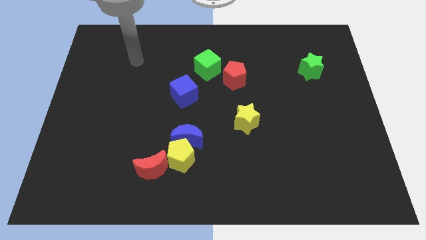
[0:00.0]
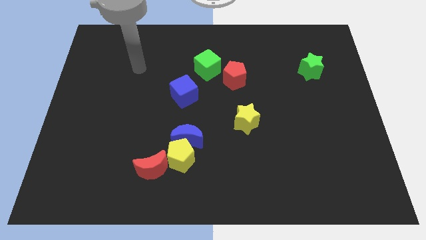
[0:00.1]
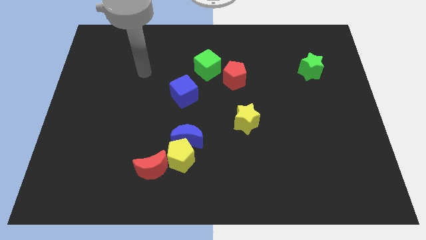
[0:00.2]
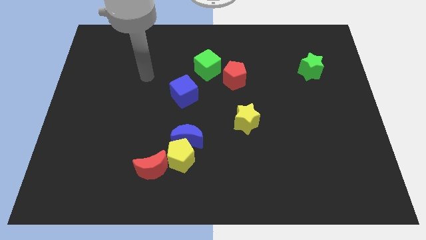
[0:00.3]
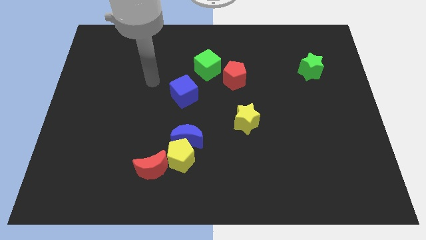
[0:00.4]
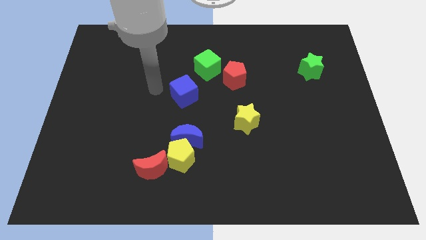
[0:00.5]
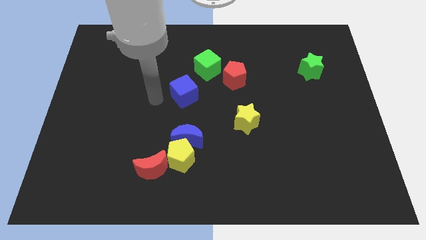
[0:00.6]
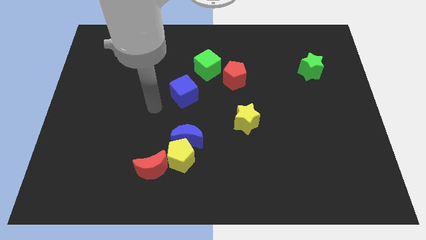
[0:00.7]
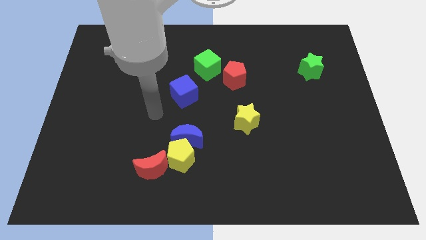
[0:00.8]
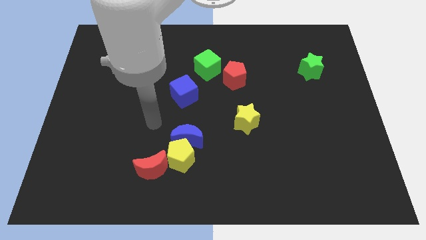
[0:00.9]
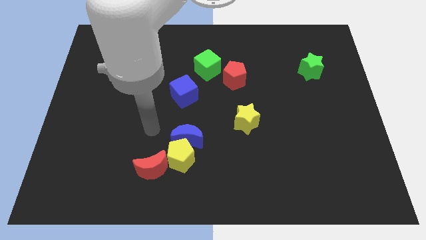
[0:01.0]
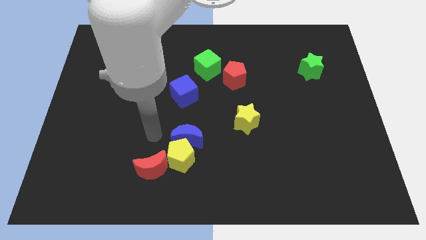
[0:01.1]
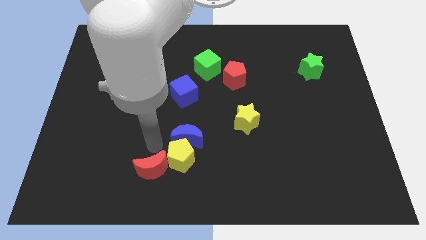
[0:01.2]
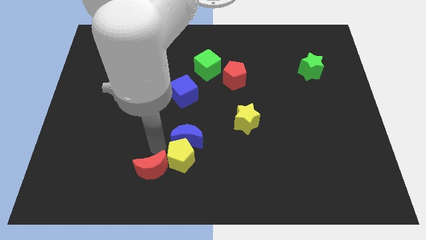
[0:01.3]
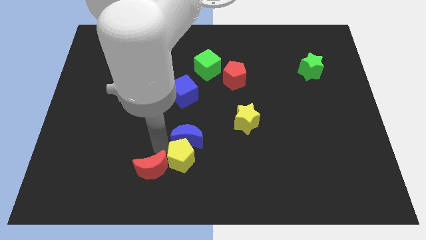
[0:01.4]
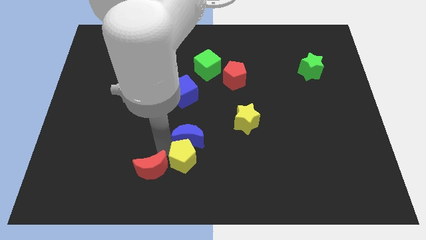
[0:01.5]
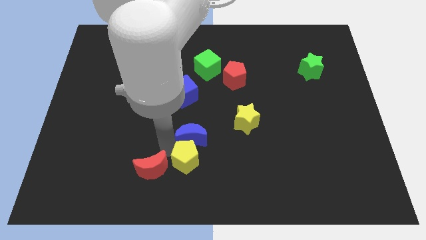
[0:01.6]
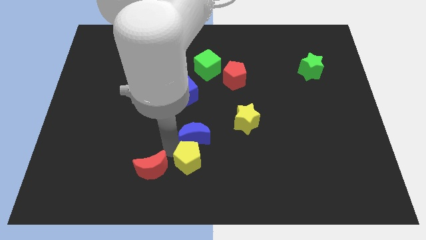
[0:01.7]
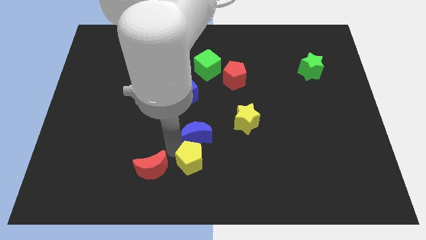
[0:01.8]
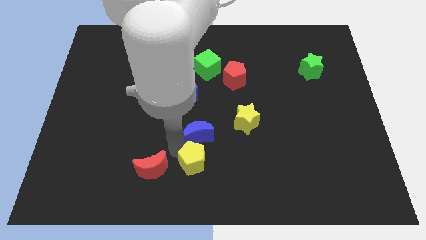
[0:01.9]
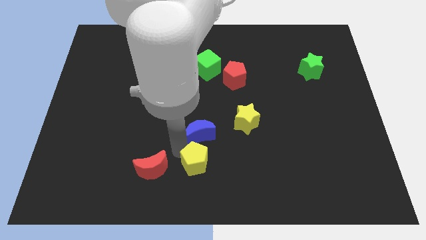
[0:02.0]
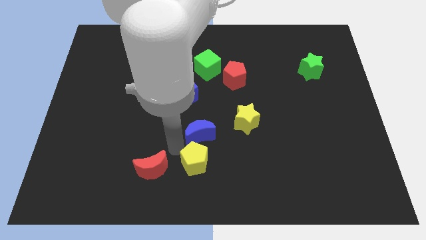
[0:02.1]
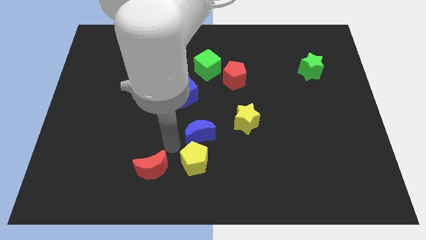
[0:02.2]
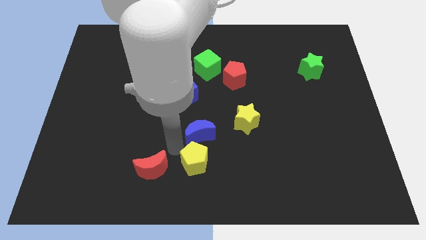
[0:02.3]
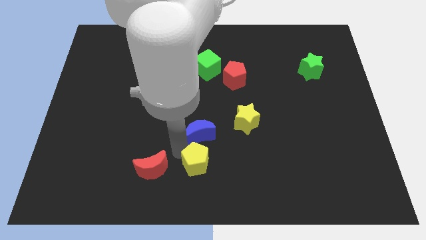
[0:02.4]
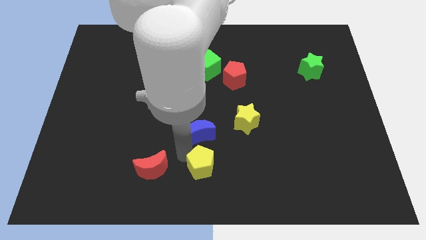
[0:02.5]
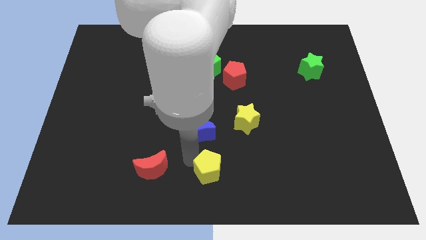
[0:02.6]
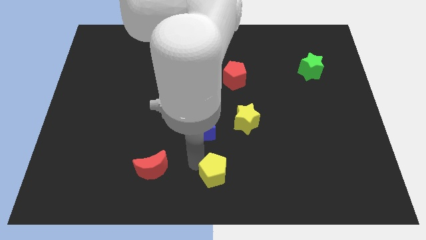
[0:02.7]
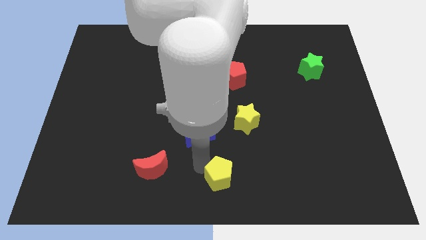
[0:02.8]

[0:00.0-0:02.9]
move the yellow pentagon away from the blue moon and red moon

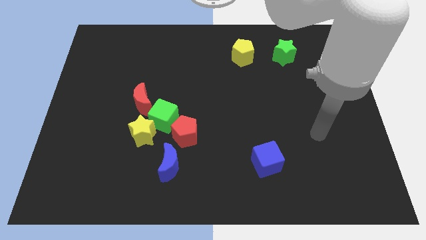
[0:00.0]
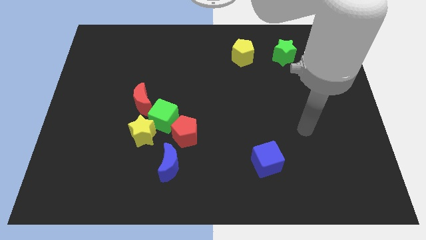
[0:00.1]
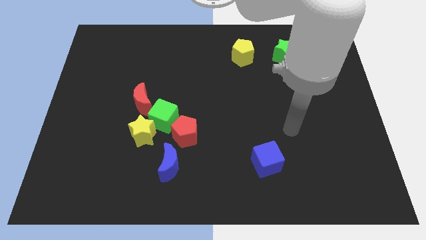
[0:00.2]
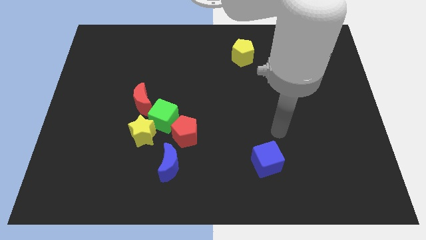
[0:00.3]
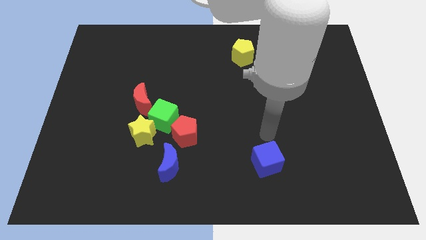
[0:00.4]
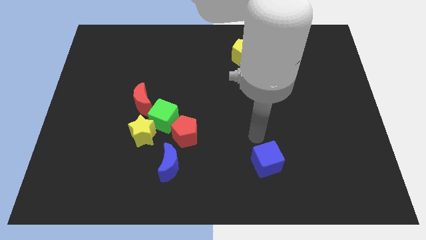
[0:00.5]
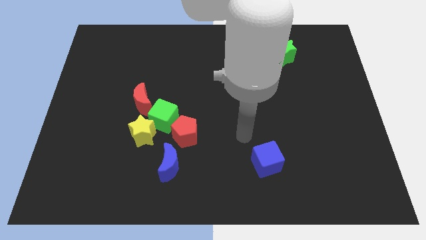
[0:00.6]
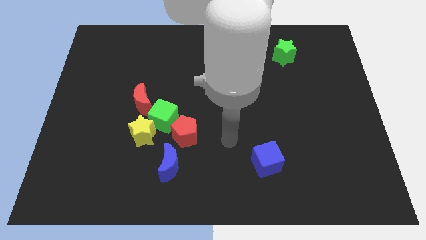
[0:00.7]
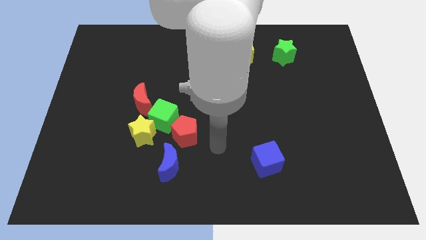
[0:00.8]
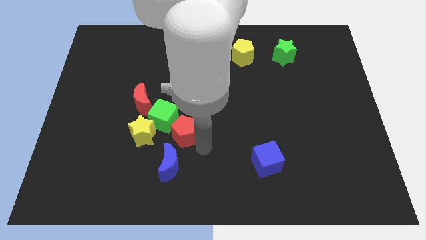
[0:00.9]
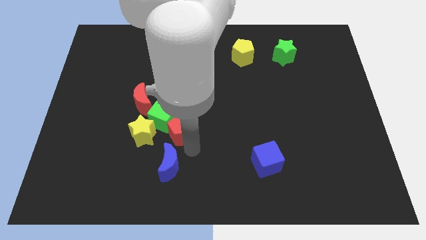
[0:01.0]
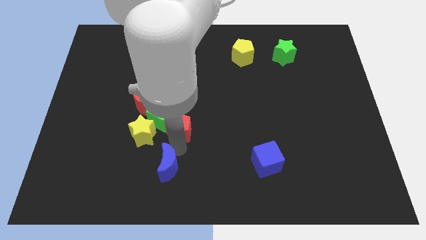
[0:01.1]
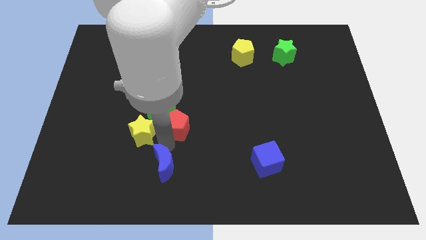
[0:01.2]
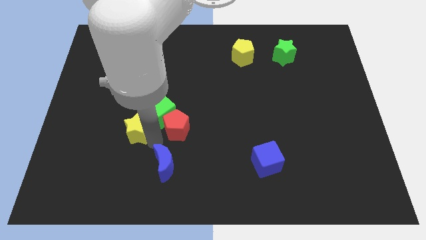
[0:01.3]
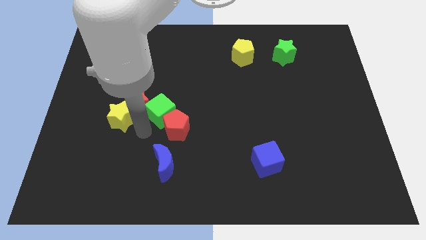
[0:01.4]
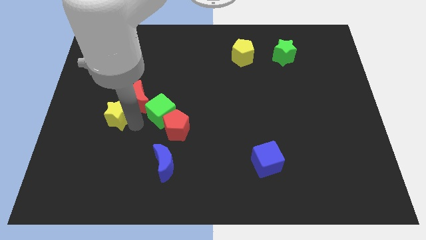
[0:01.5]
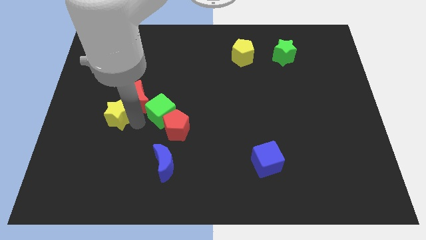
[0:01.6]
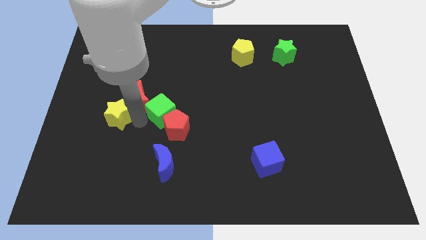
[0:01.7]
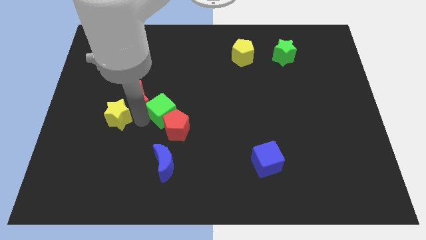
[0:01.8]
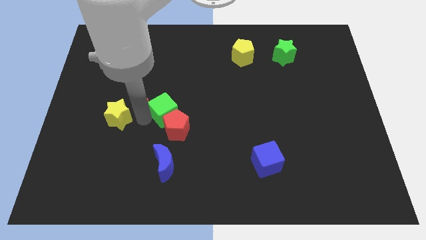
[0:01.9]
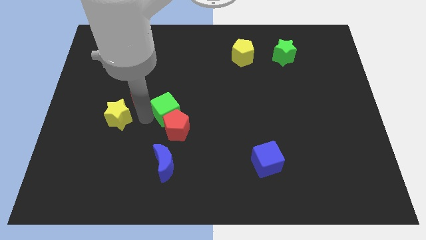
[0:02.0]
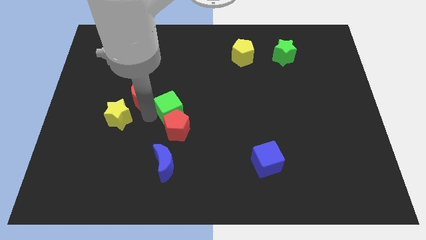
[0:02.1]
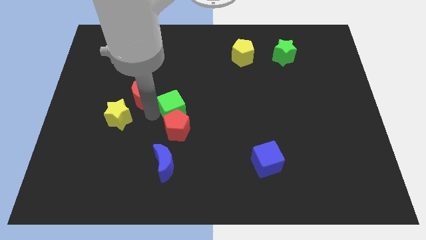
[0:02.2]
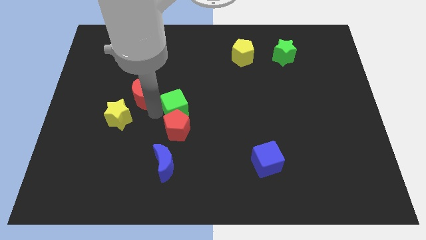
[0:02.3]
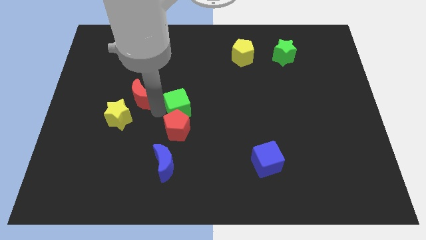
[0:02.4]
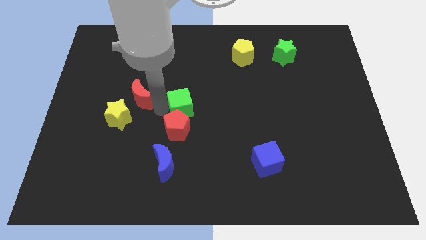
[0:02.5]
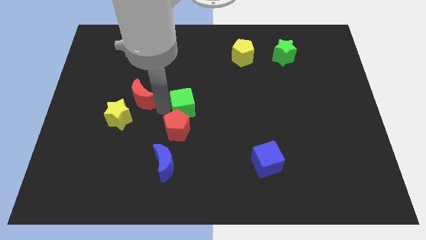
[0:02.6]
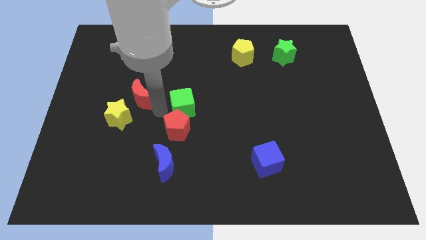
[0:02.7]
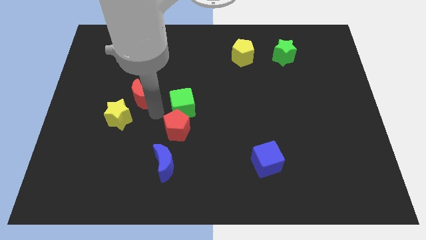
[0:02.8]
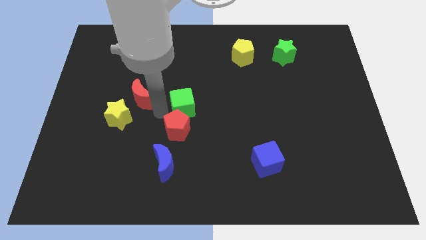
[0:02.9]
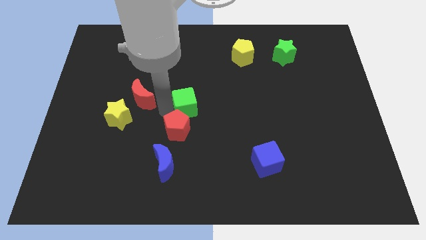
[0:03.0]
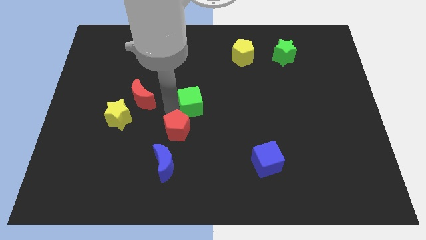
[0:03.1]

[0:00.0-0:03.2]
move the green cube away from the yellow star, red pentagon, and red moon

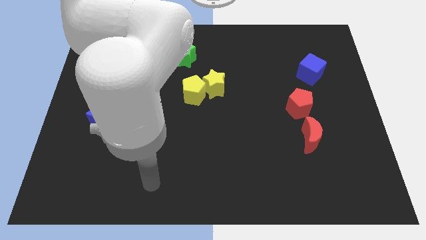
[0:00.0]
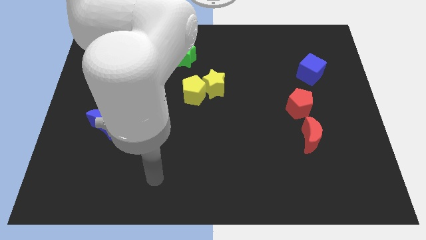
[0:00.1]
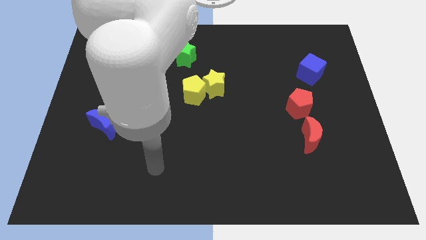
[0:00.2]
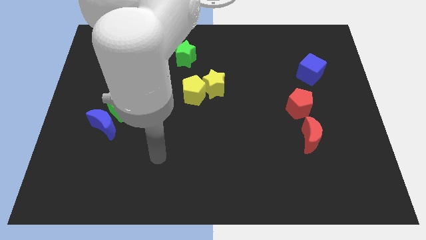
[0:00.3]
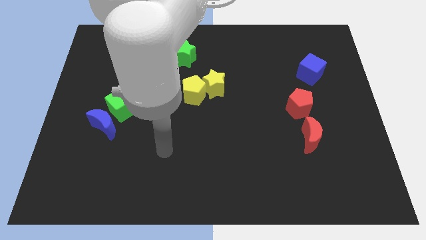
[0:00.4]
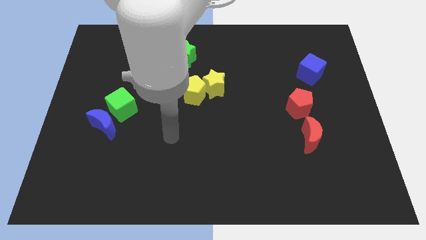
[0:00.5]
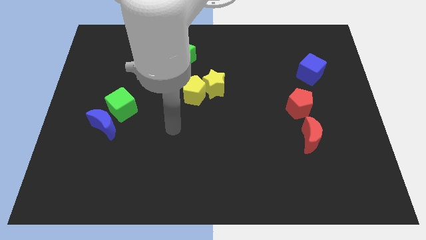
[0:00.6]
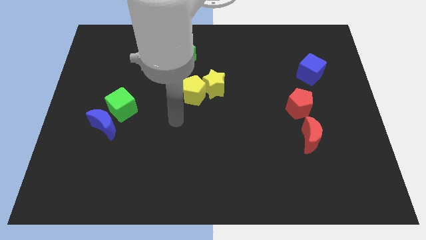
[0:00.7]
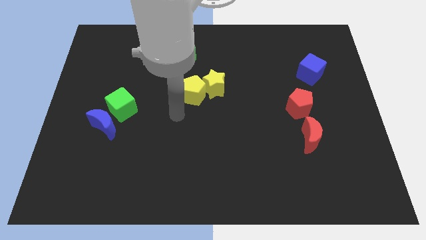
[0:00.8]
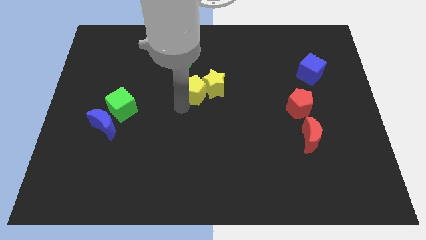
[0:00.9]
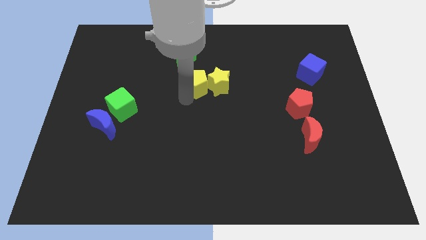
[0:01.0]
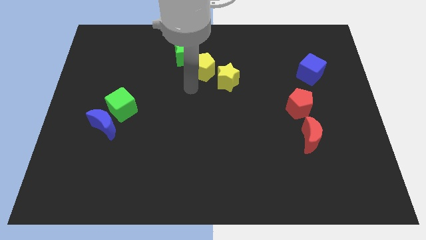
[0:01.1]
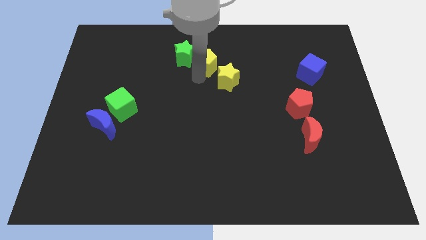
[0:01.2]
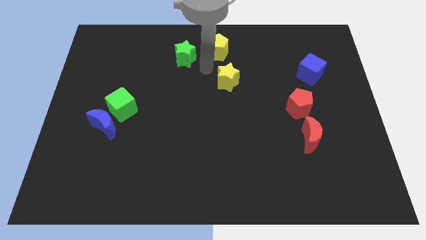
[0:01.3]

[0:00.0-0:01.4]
move the yellow star away from the yellow pentagon

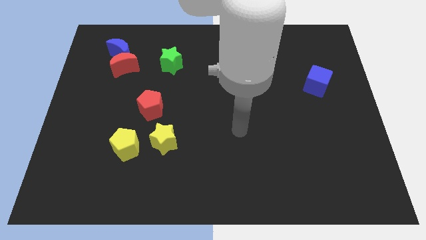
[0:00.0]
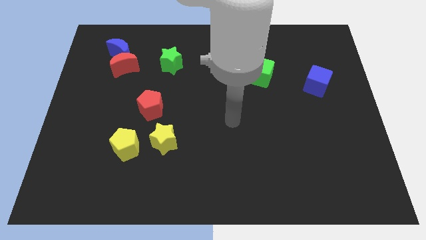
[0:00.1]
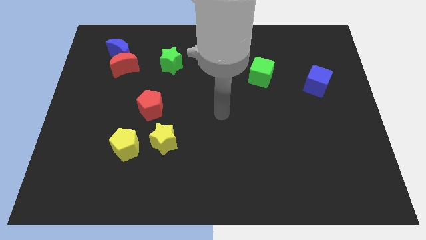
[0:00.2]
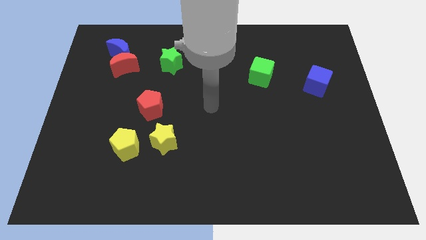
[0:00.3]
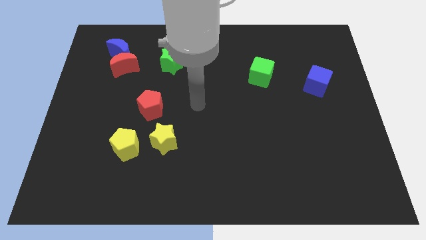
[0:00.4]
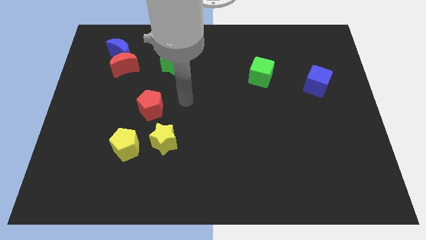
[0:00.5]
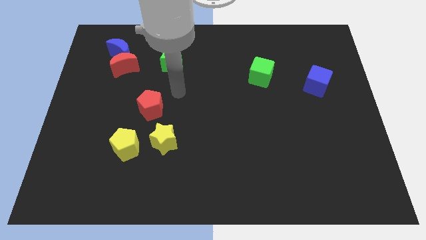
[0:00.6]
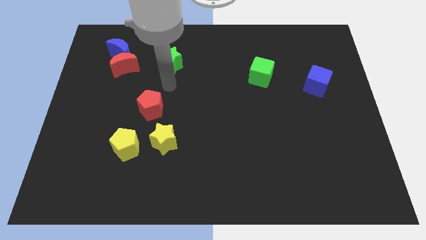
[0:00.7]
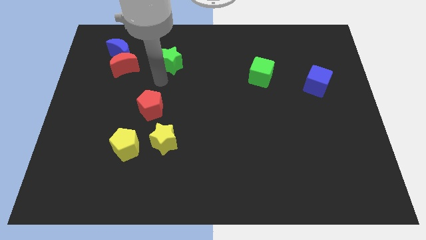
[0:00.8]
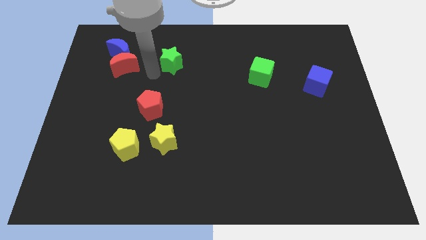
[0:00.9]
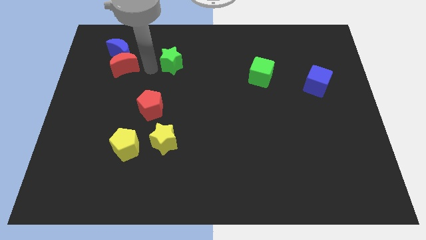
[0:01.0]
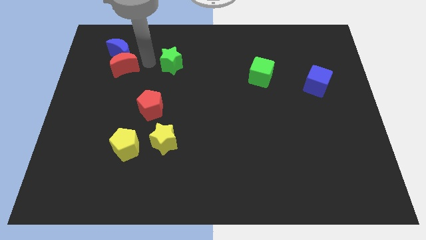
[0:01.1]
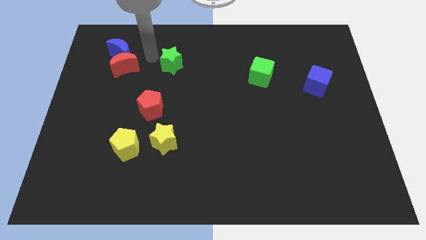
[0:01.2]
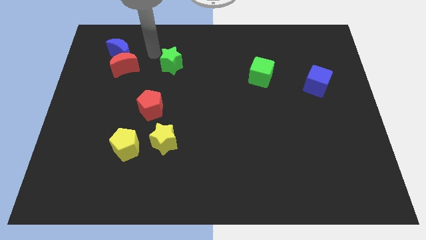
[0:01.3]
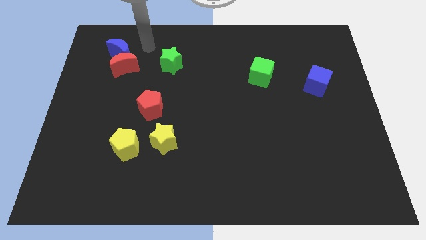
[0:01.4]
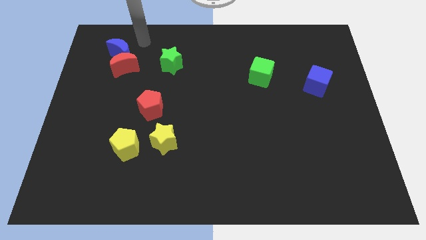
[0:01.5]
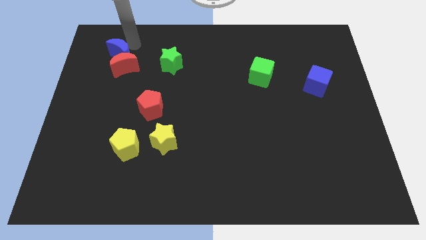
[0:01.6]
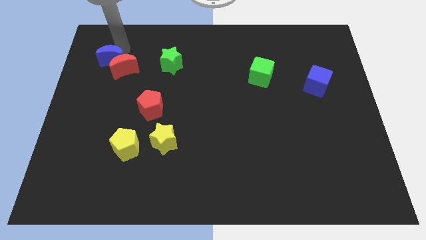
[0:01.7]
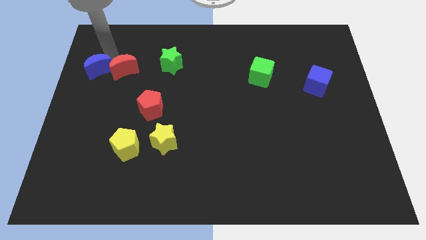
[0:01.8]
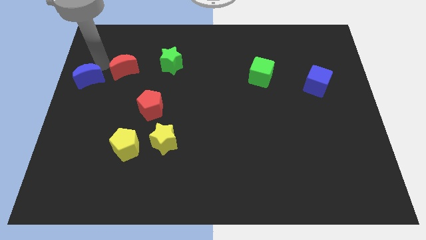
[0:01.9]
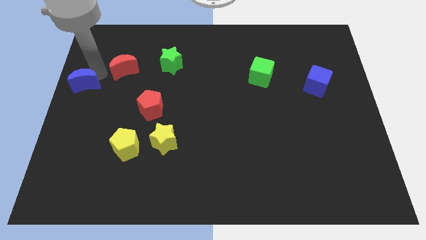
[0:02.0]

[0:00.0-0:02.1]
pull the red moon apart from the blue moon
